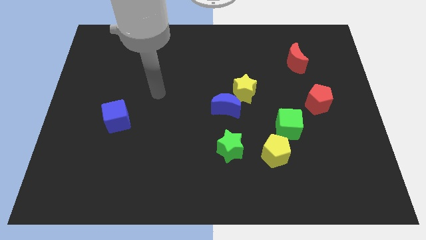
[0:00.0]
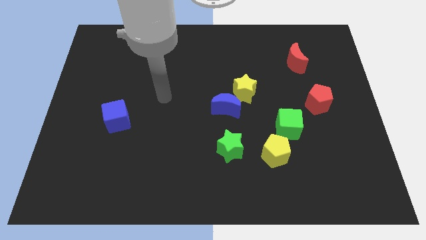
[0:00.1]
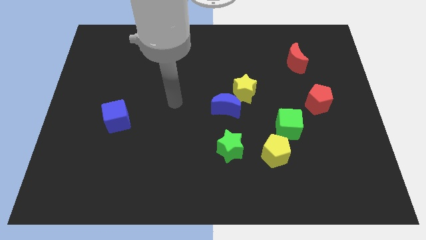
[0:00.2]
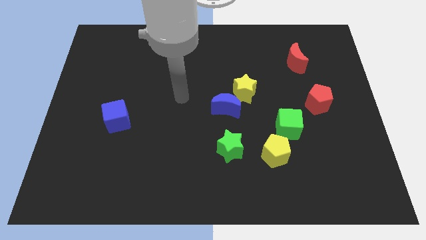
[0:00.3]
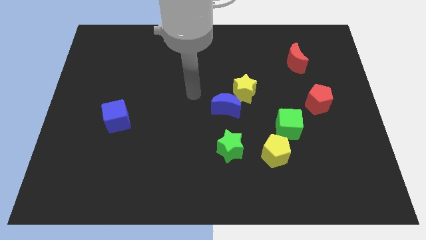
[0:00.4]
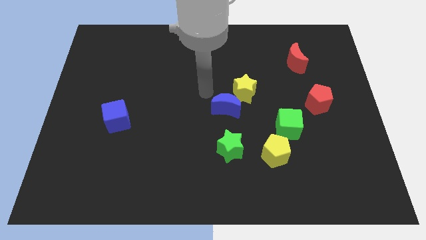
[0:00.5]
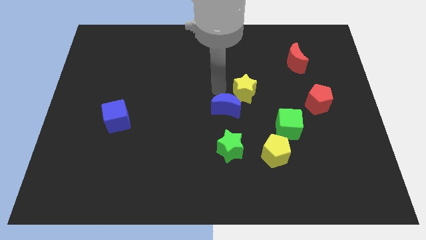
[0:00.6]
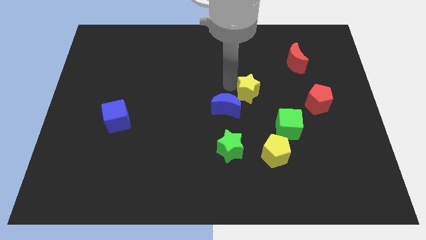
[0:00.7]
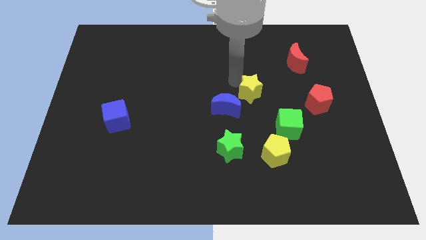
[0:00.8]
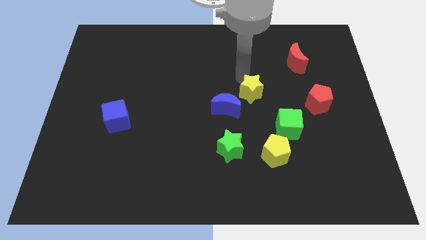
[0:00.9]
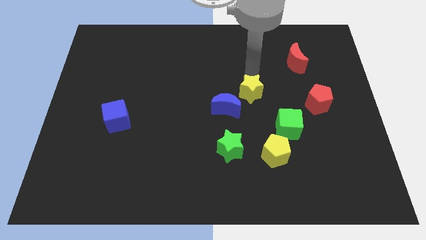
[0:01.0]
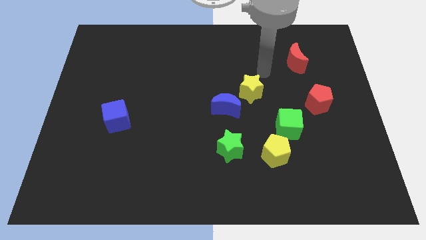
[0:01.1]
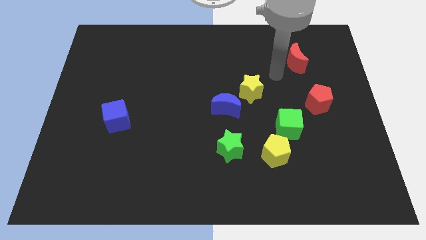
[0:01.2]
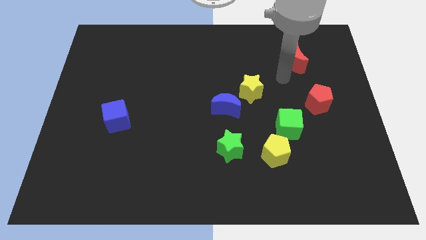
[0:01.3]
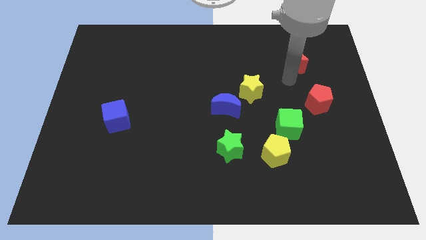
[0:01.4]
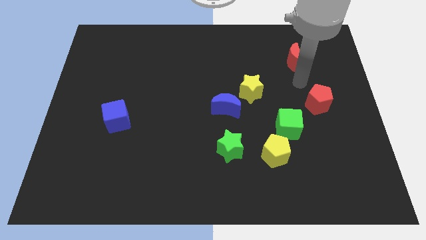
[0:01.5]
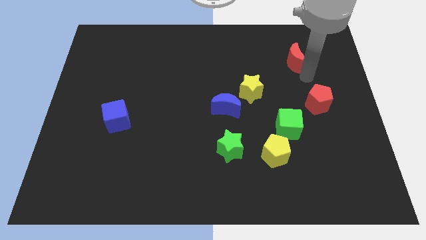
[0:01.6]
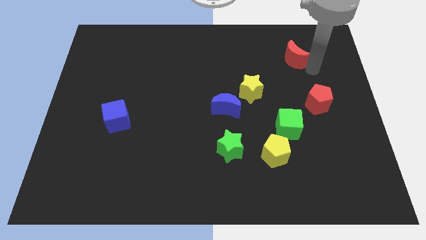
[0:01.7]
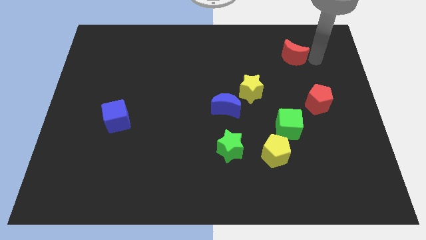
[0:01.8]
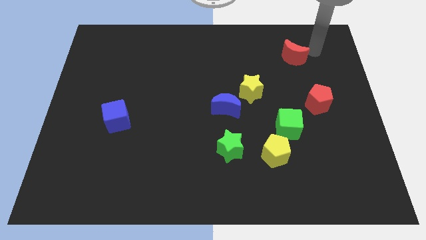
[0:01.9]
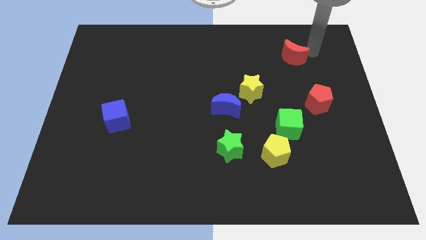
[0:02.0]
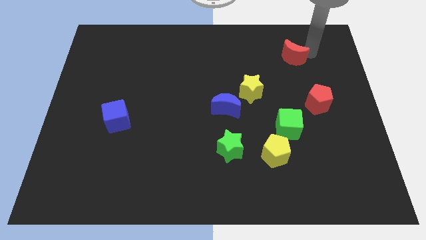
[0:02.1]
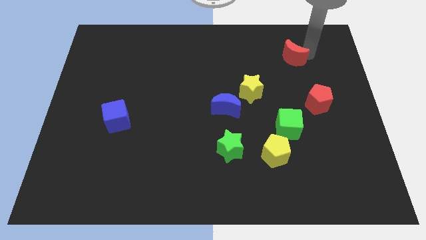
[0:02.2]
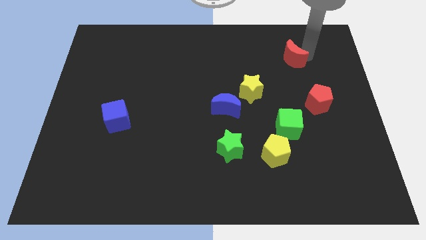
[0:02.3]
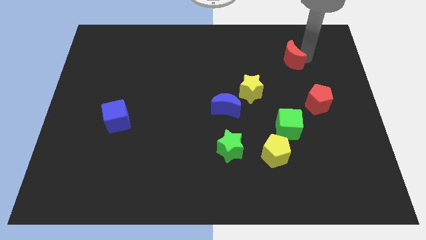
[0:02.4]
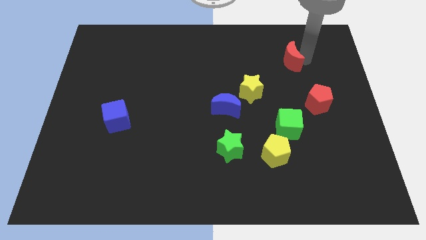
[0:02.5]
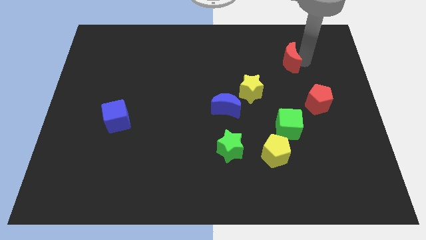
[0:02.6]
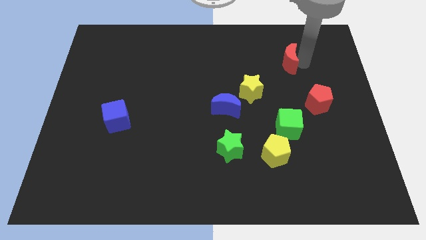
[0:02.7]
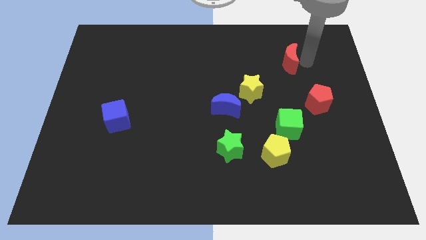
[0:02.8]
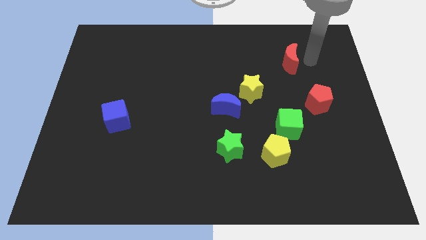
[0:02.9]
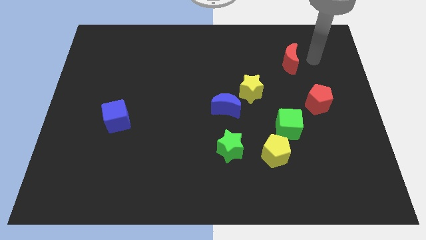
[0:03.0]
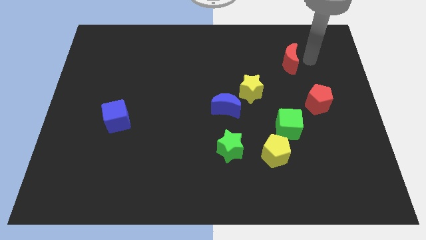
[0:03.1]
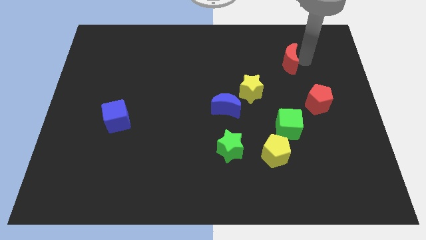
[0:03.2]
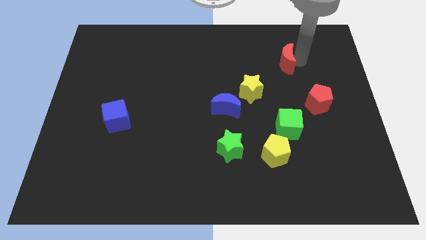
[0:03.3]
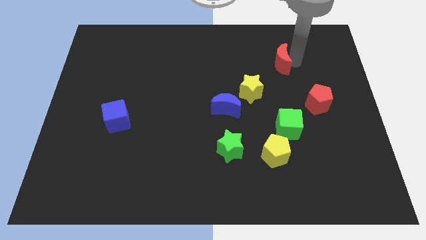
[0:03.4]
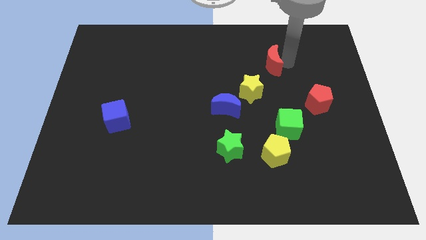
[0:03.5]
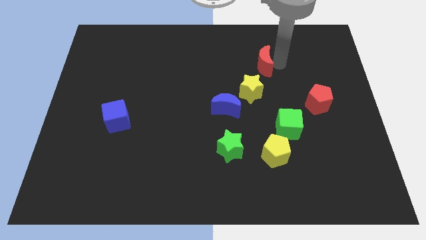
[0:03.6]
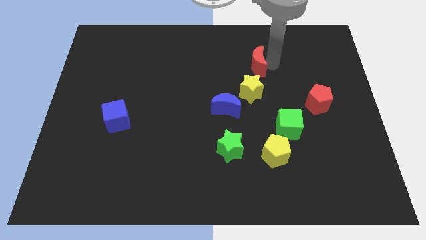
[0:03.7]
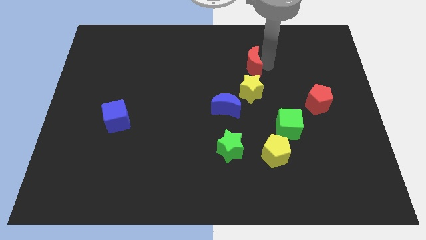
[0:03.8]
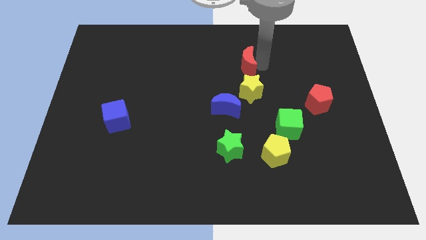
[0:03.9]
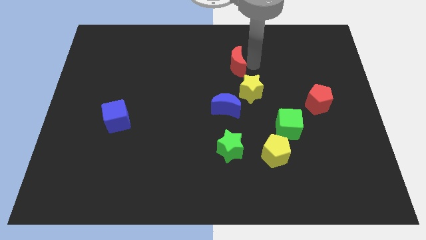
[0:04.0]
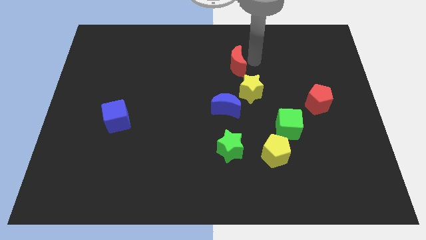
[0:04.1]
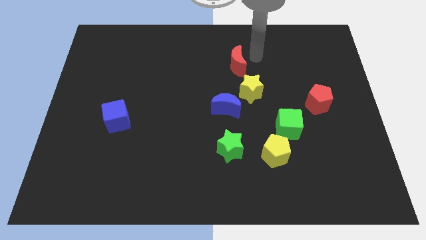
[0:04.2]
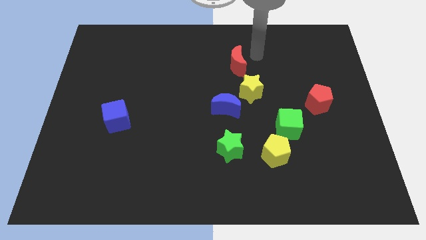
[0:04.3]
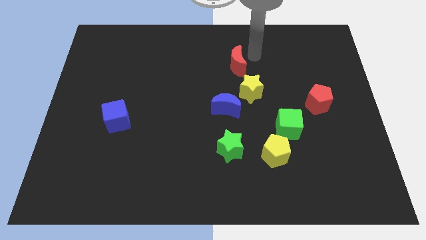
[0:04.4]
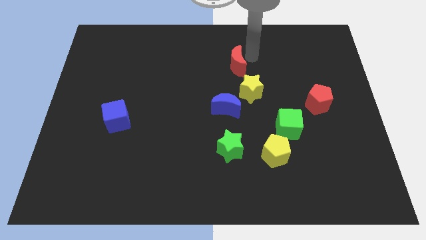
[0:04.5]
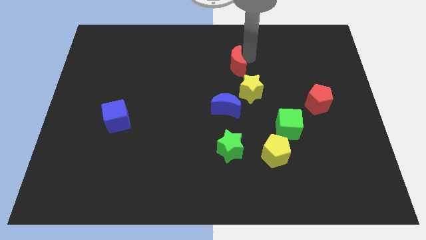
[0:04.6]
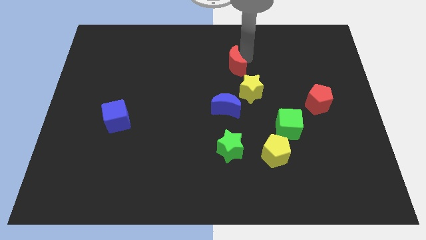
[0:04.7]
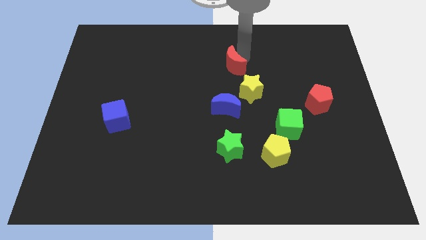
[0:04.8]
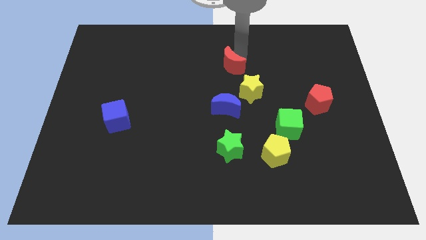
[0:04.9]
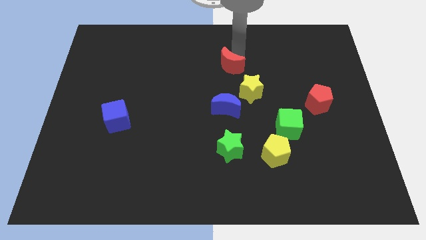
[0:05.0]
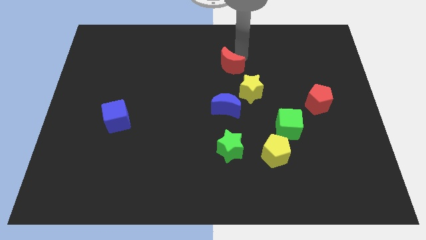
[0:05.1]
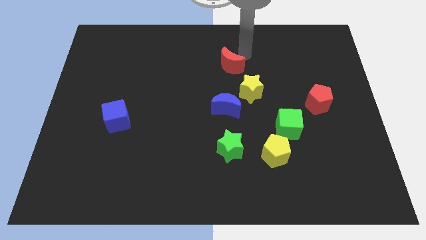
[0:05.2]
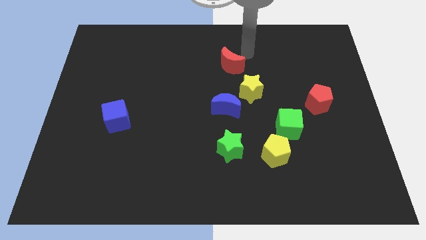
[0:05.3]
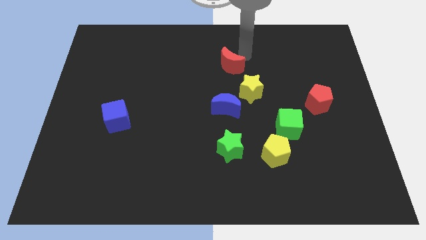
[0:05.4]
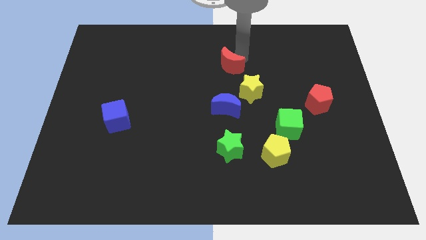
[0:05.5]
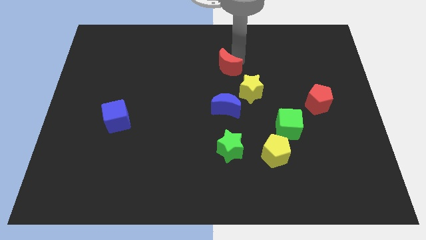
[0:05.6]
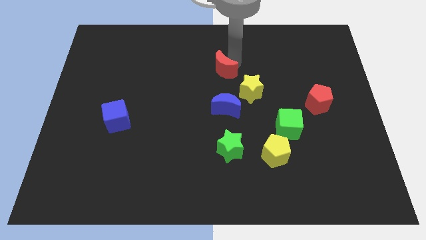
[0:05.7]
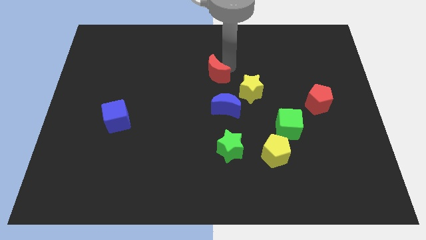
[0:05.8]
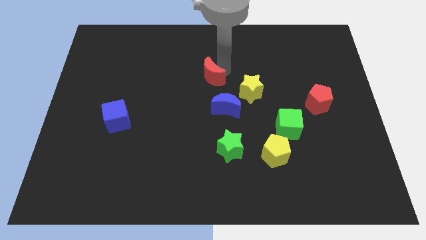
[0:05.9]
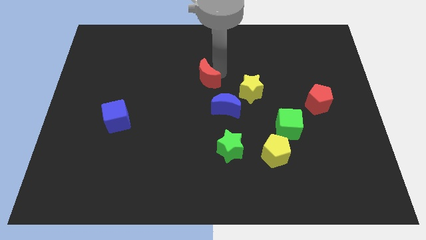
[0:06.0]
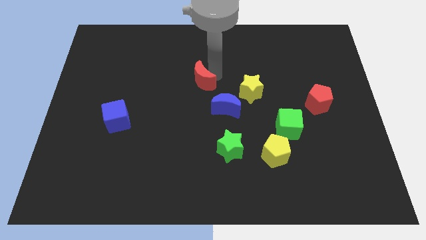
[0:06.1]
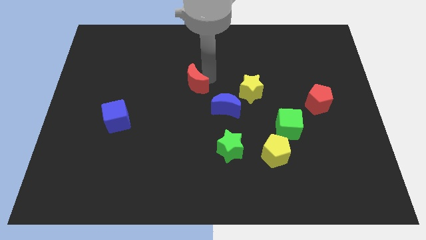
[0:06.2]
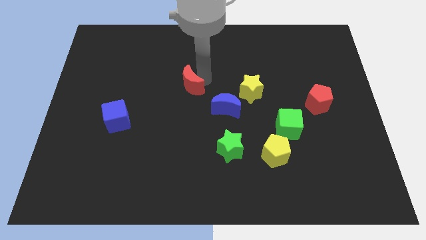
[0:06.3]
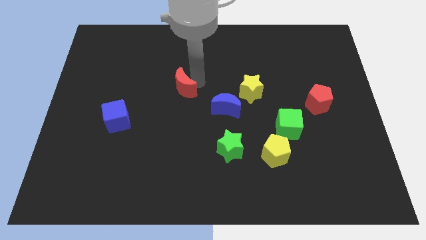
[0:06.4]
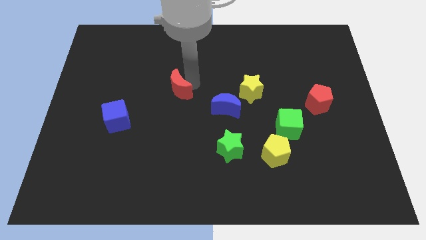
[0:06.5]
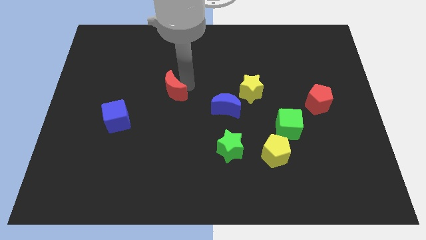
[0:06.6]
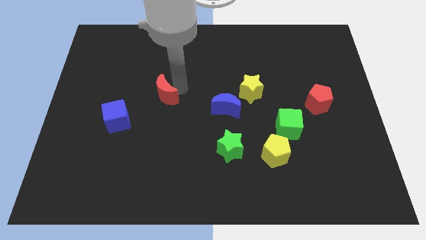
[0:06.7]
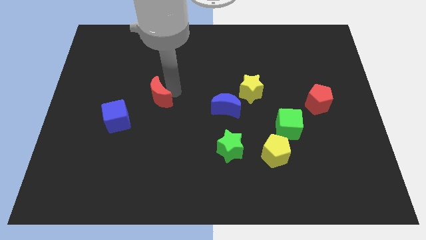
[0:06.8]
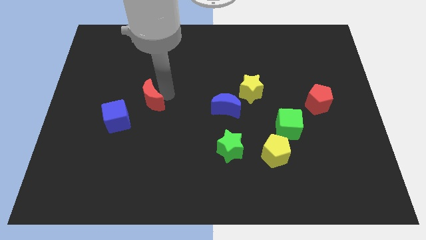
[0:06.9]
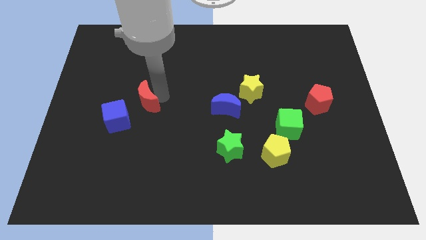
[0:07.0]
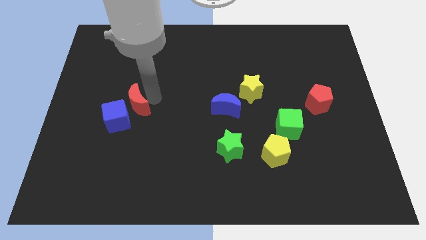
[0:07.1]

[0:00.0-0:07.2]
move the red moon close to the blue cube
